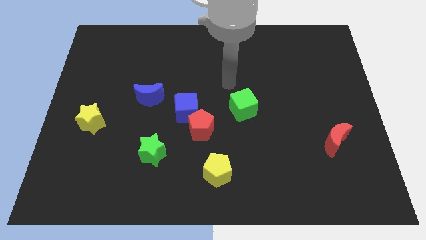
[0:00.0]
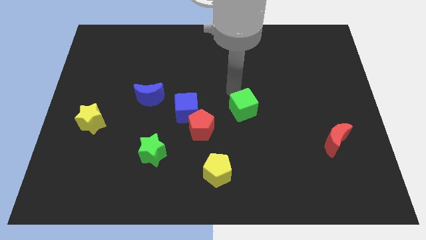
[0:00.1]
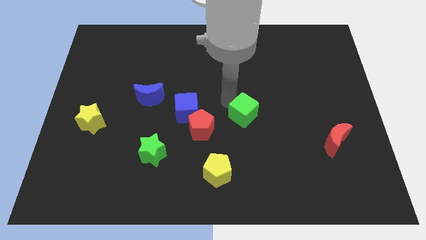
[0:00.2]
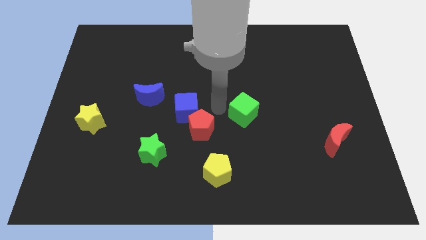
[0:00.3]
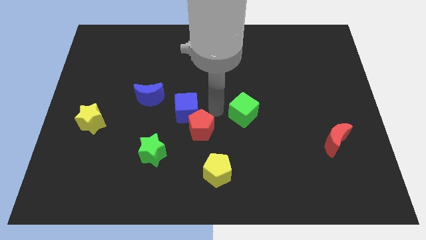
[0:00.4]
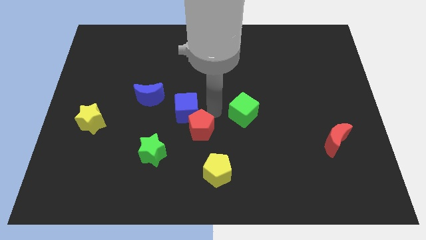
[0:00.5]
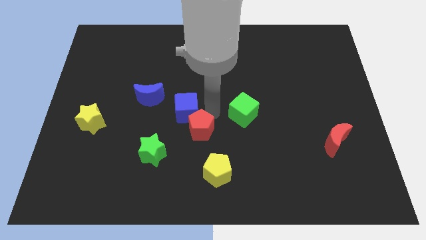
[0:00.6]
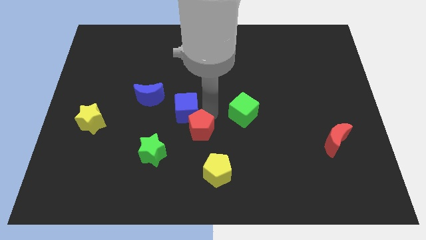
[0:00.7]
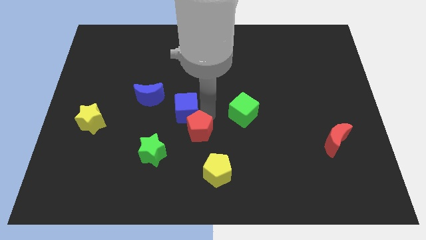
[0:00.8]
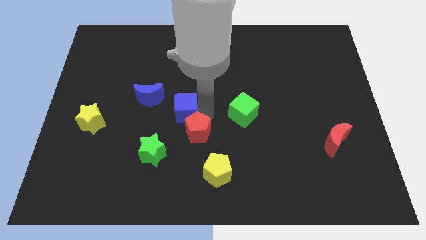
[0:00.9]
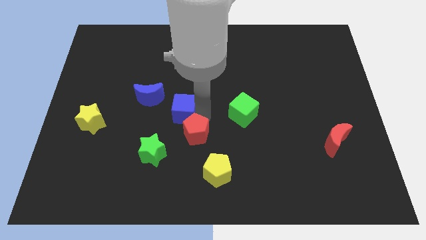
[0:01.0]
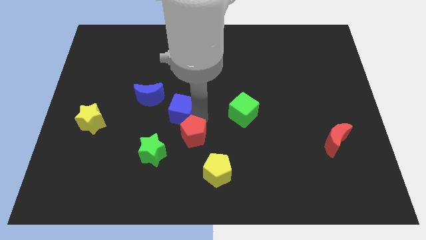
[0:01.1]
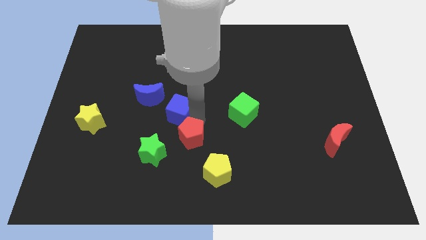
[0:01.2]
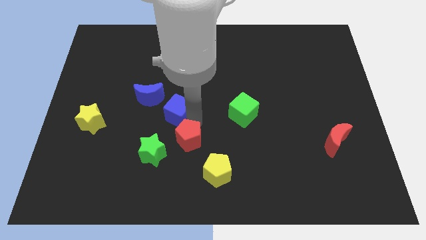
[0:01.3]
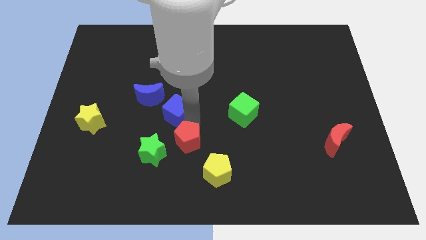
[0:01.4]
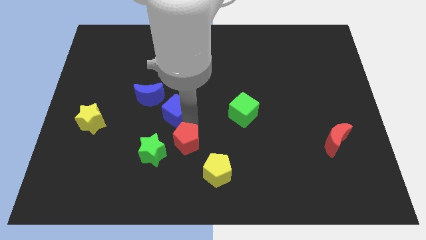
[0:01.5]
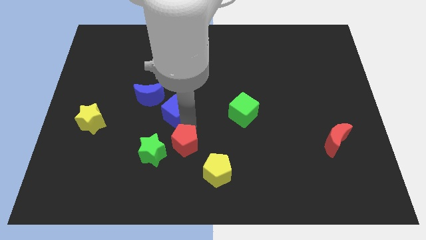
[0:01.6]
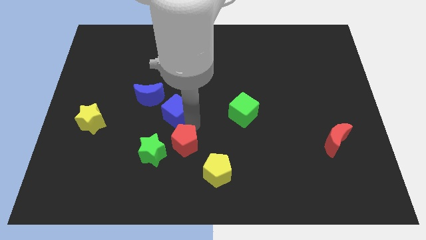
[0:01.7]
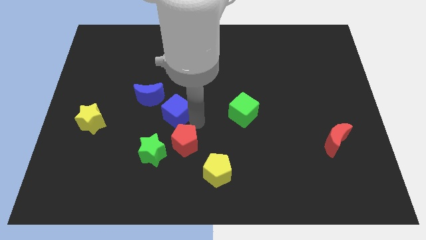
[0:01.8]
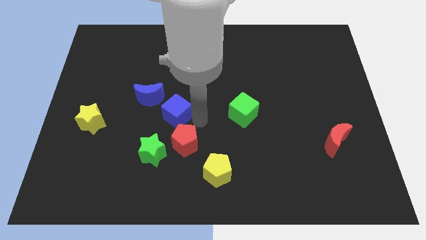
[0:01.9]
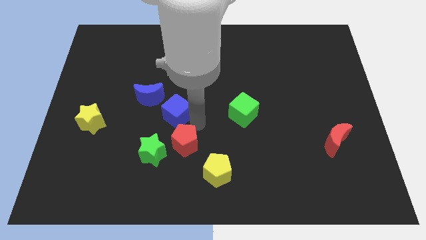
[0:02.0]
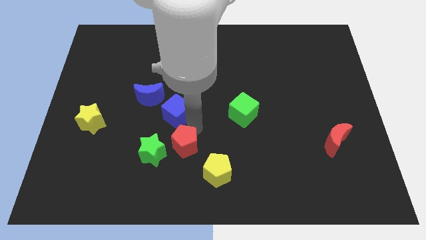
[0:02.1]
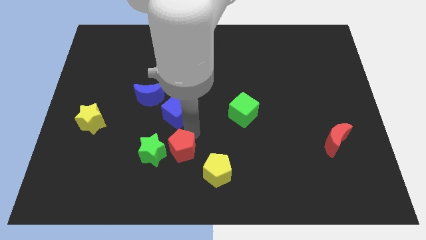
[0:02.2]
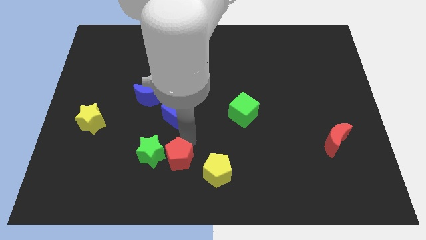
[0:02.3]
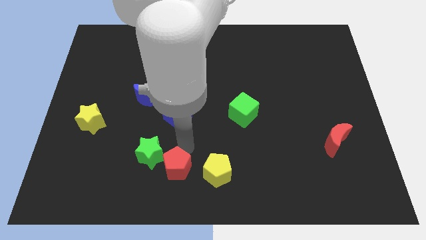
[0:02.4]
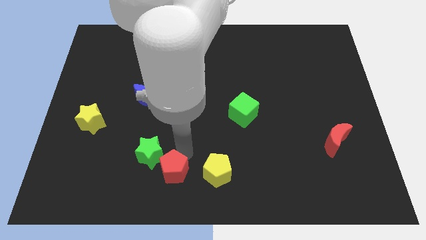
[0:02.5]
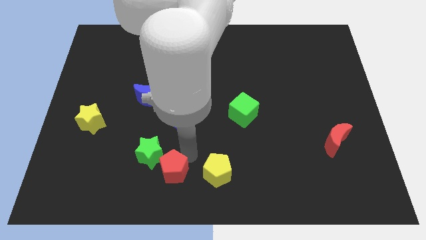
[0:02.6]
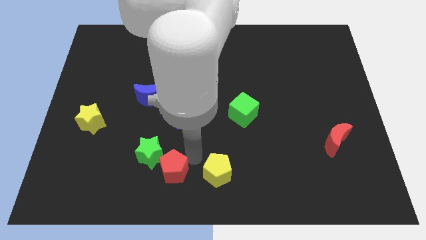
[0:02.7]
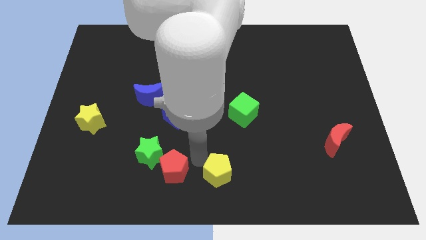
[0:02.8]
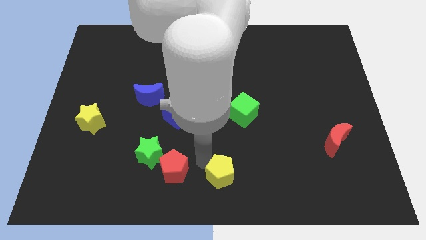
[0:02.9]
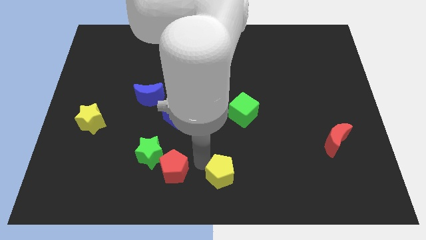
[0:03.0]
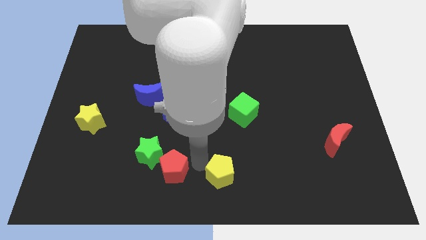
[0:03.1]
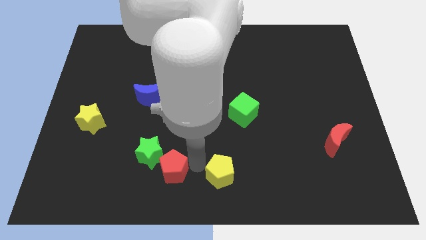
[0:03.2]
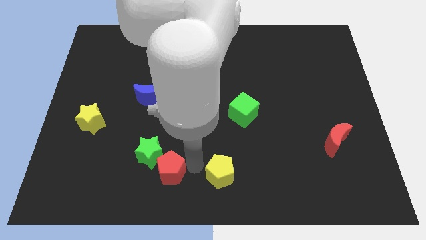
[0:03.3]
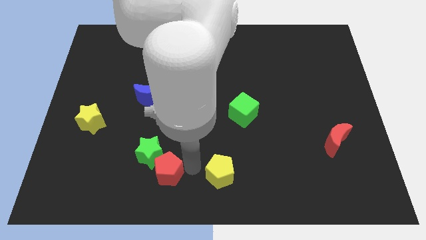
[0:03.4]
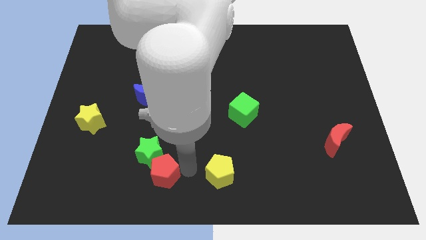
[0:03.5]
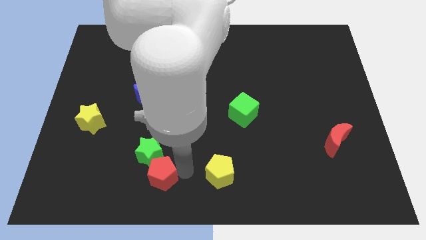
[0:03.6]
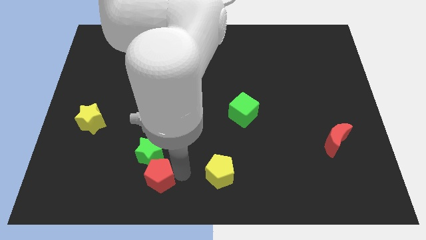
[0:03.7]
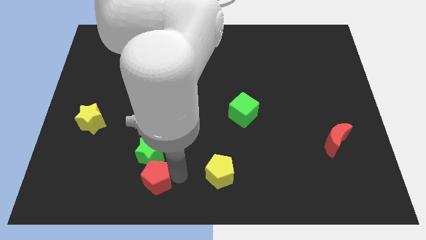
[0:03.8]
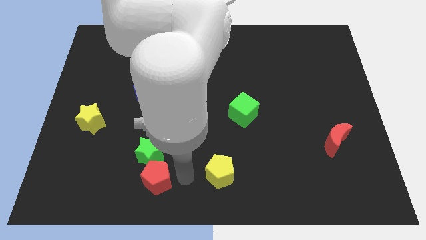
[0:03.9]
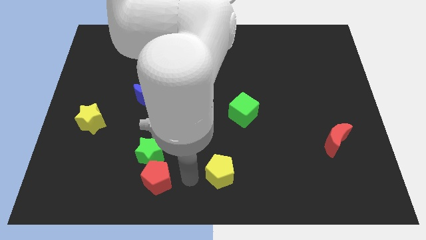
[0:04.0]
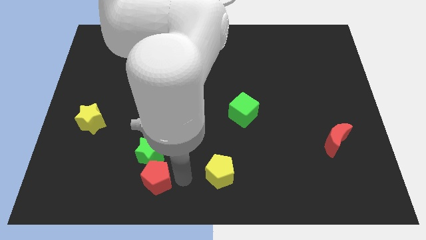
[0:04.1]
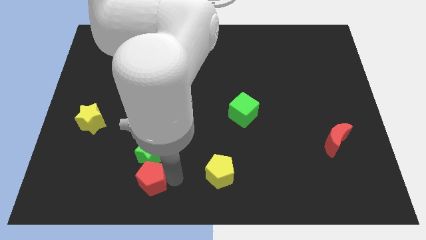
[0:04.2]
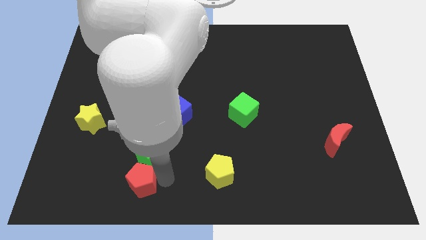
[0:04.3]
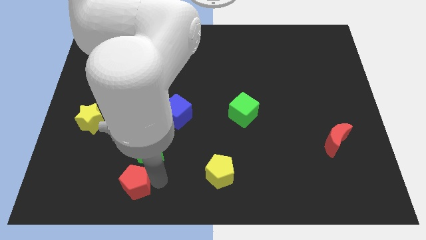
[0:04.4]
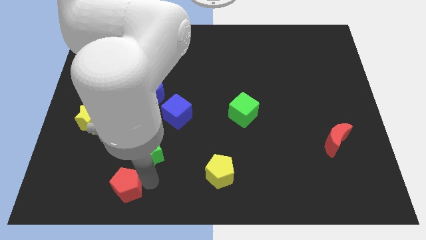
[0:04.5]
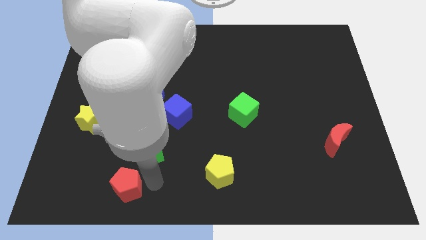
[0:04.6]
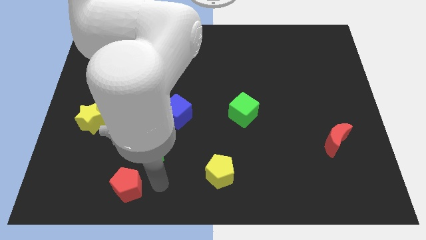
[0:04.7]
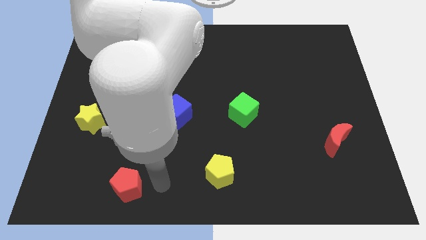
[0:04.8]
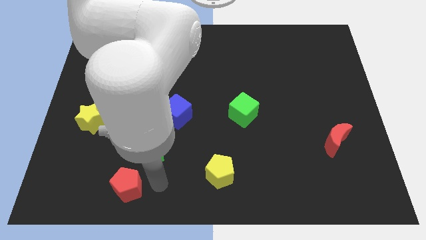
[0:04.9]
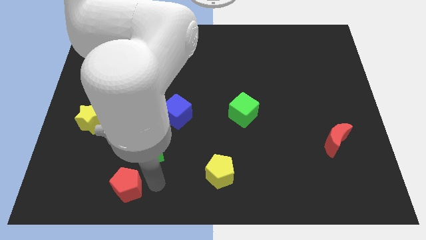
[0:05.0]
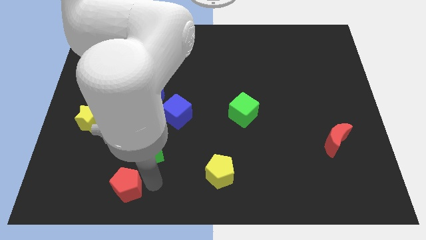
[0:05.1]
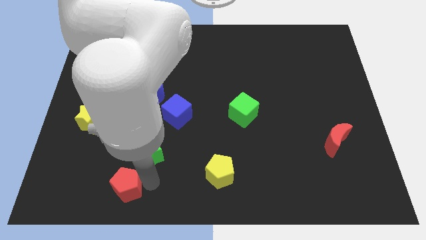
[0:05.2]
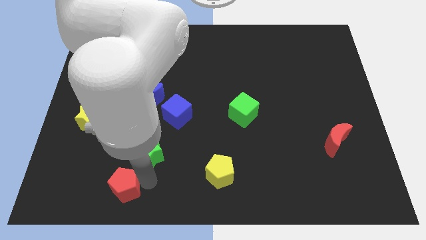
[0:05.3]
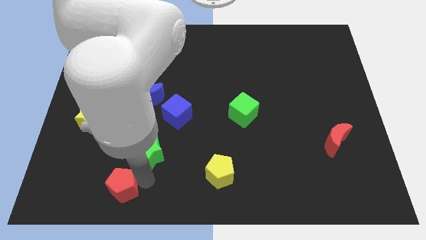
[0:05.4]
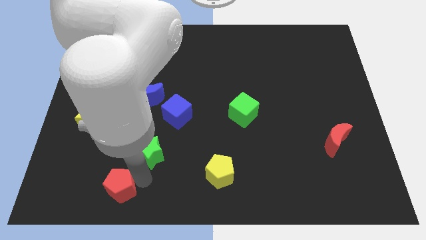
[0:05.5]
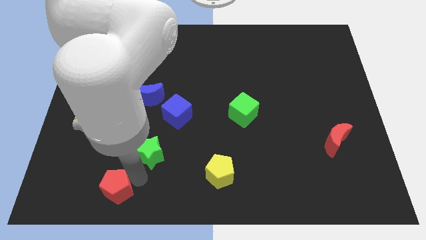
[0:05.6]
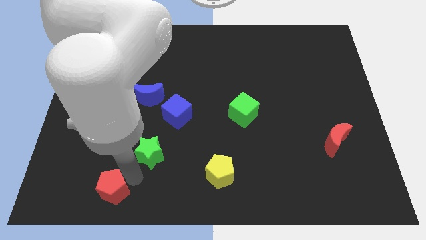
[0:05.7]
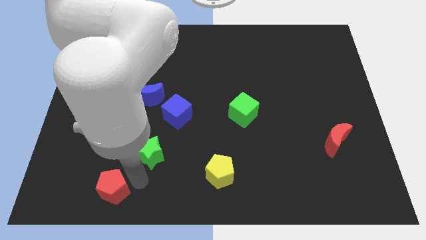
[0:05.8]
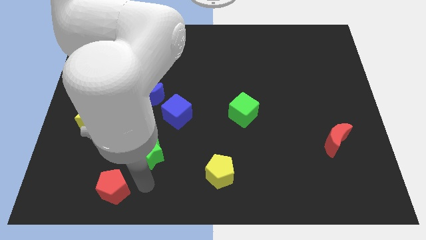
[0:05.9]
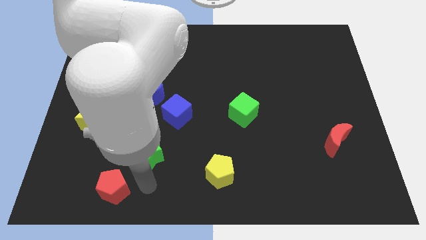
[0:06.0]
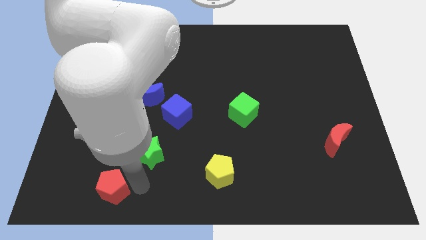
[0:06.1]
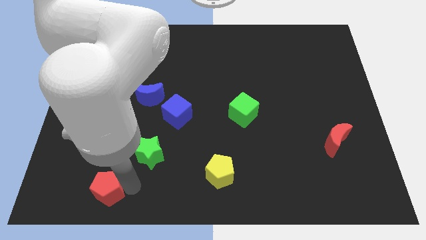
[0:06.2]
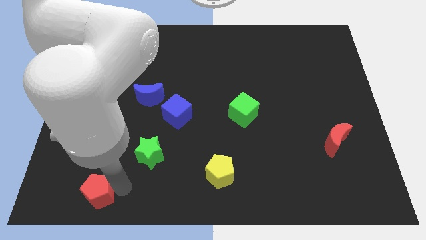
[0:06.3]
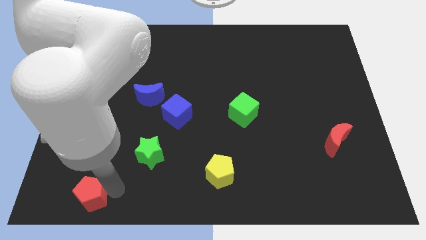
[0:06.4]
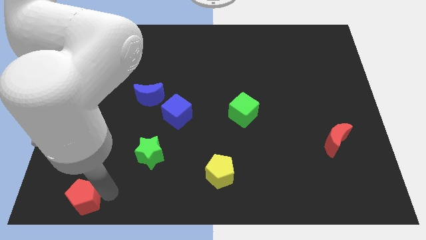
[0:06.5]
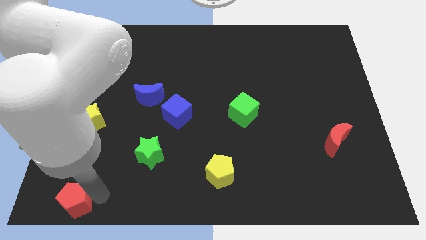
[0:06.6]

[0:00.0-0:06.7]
push the red pentagon to the bottom left corner
